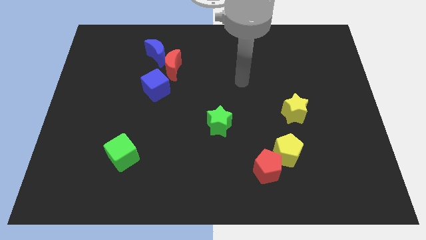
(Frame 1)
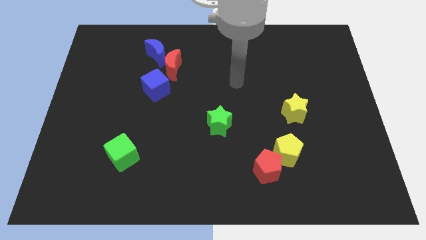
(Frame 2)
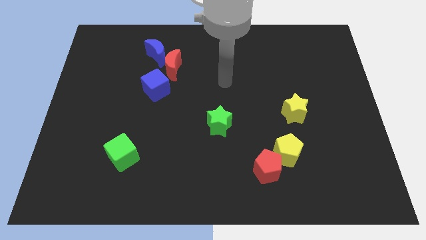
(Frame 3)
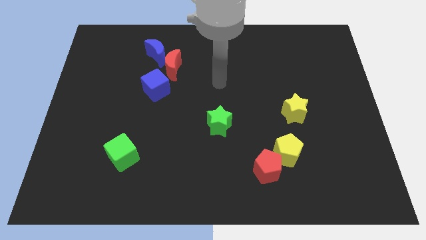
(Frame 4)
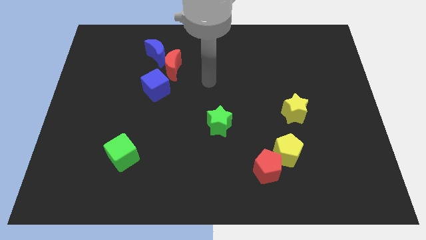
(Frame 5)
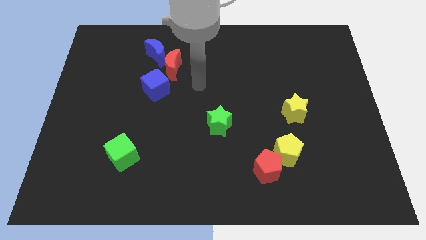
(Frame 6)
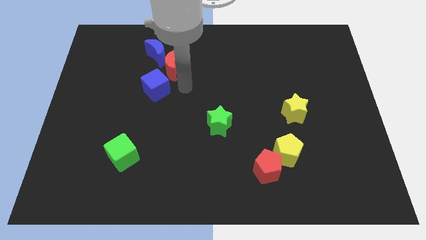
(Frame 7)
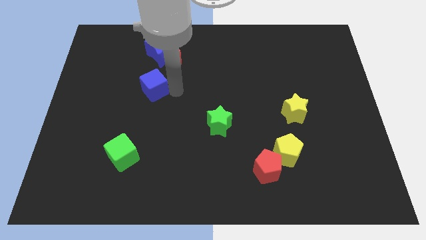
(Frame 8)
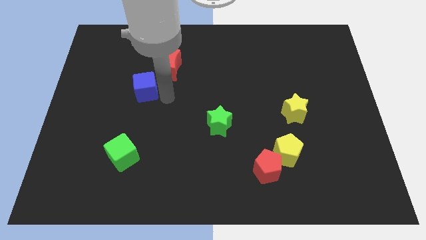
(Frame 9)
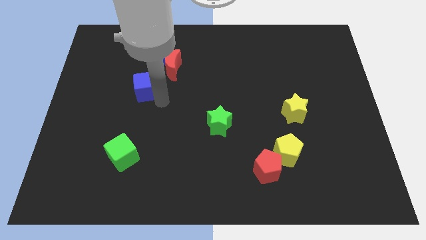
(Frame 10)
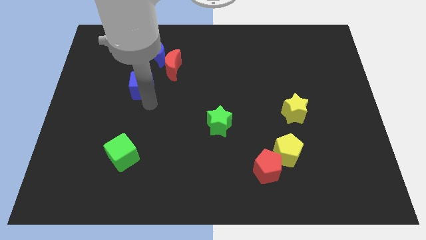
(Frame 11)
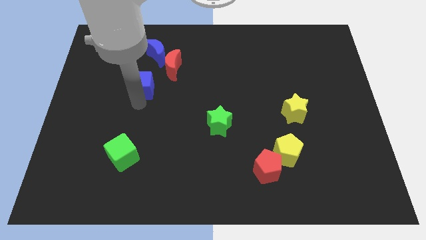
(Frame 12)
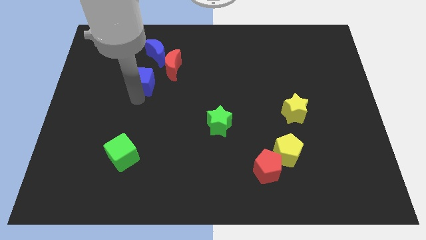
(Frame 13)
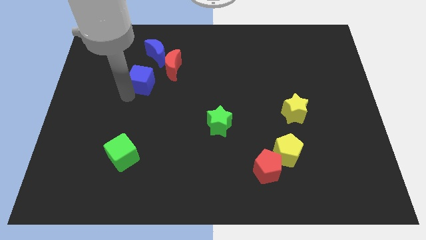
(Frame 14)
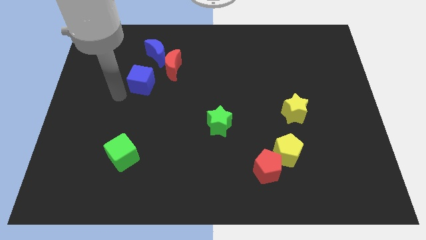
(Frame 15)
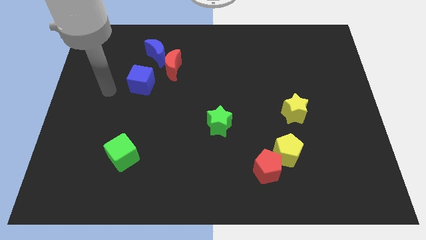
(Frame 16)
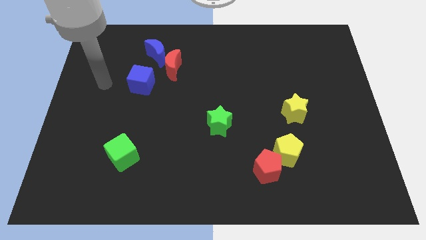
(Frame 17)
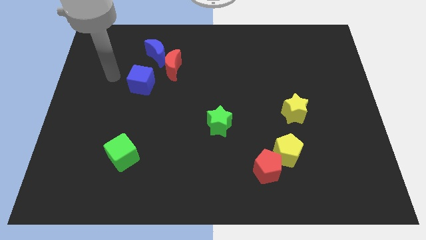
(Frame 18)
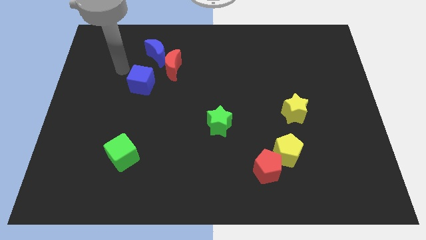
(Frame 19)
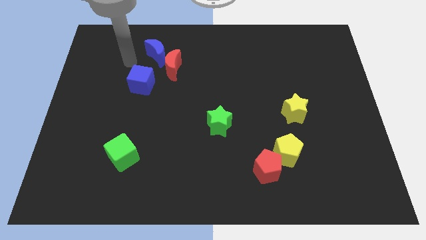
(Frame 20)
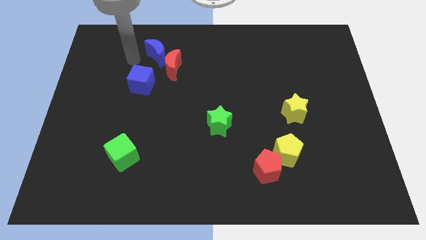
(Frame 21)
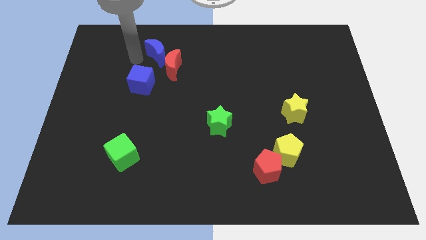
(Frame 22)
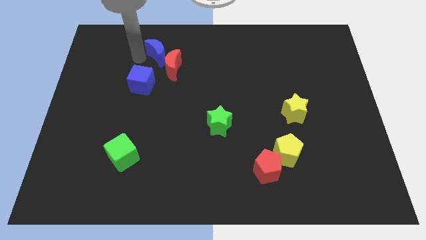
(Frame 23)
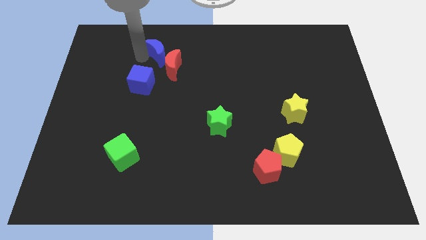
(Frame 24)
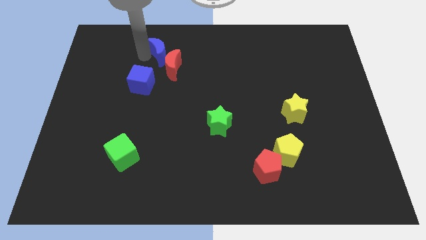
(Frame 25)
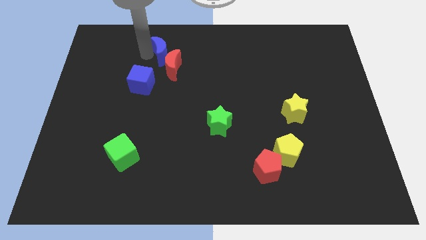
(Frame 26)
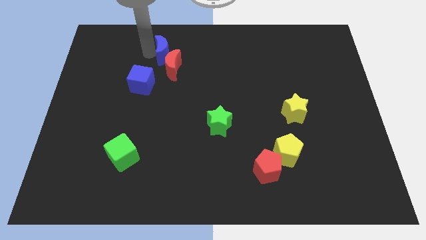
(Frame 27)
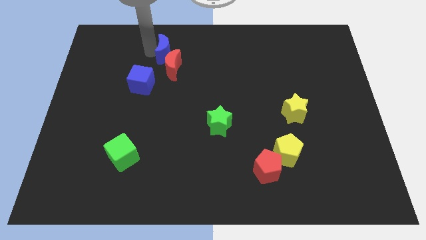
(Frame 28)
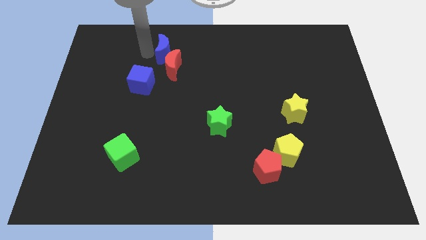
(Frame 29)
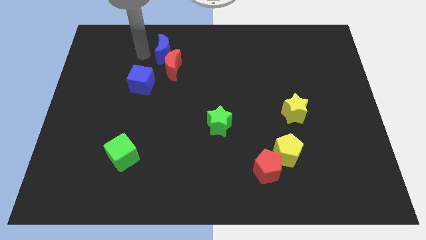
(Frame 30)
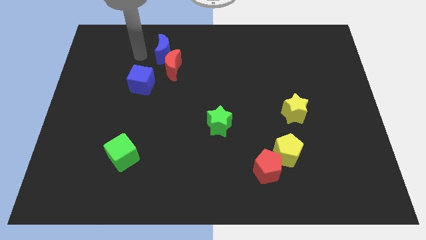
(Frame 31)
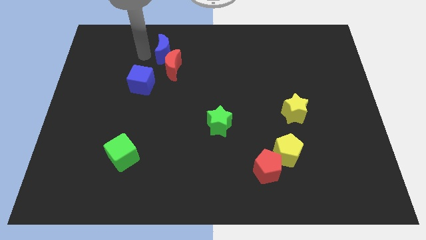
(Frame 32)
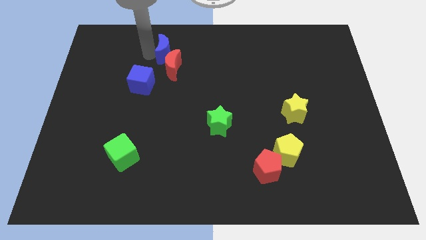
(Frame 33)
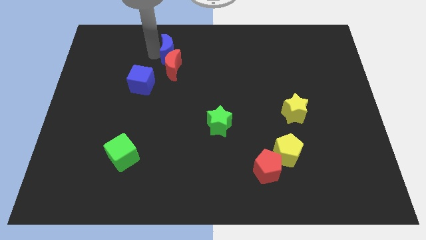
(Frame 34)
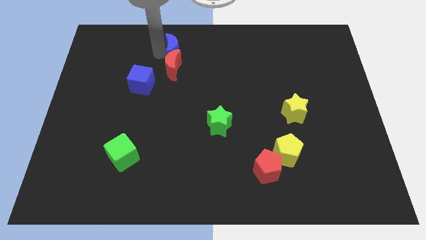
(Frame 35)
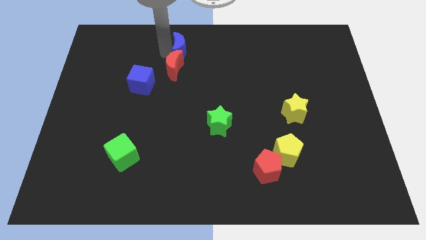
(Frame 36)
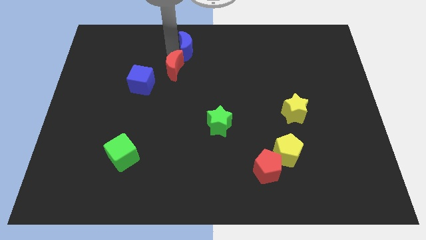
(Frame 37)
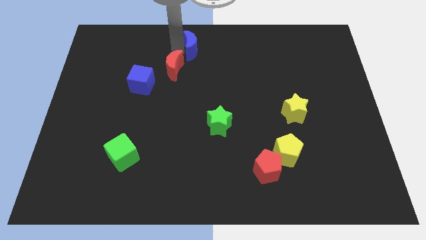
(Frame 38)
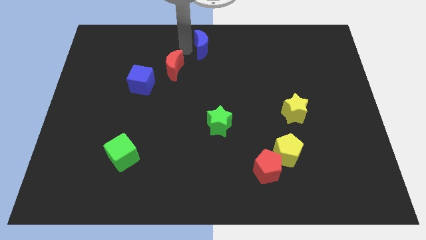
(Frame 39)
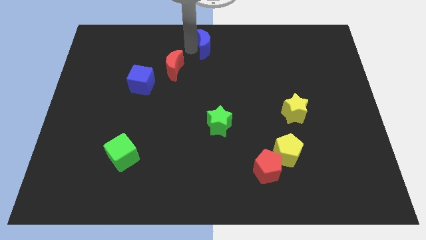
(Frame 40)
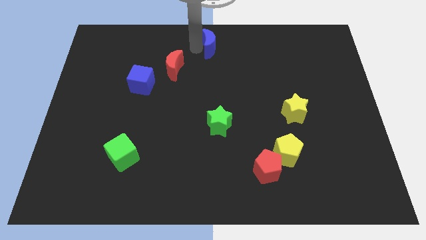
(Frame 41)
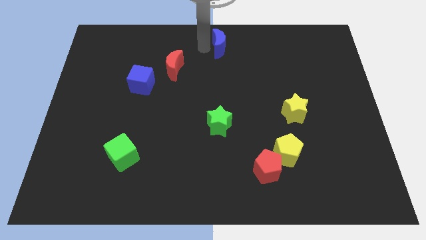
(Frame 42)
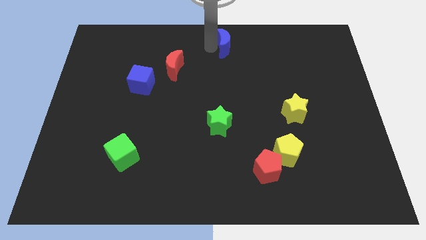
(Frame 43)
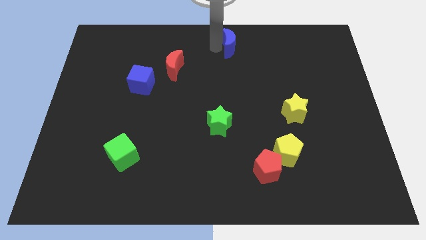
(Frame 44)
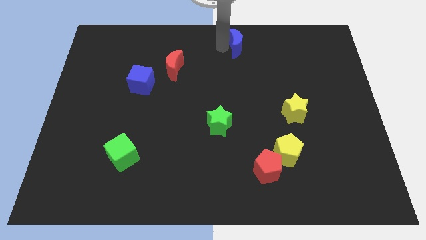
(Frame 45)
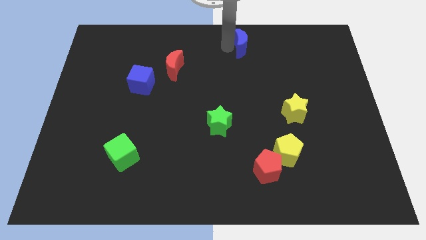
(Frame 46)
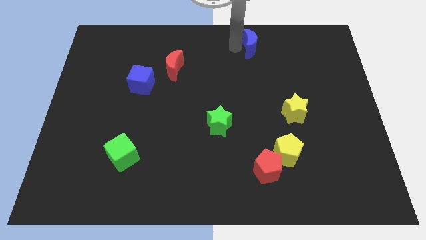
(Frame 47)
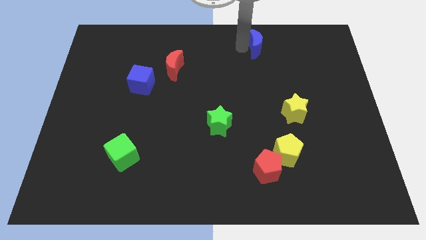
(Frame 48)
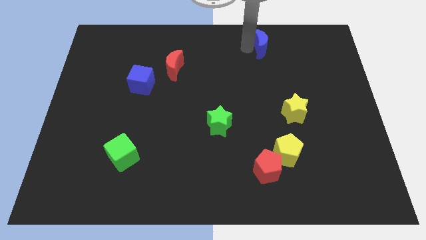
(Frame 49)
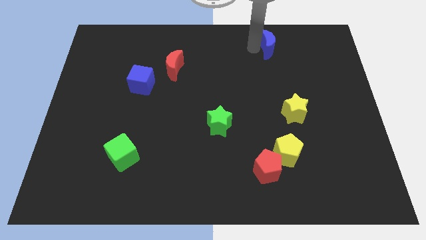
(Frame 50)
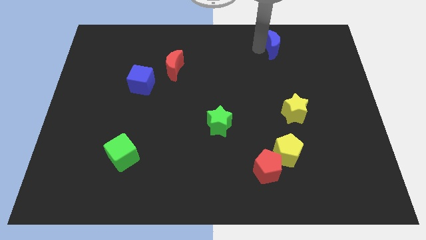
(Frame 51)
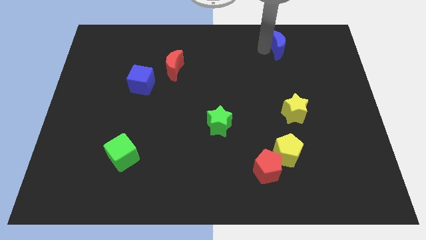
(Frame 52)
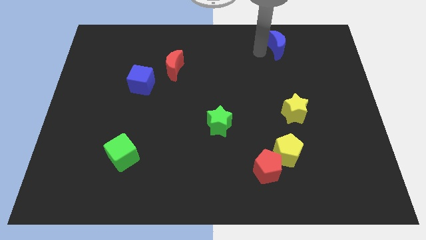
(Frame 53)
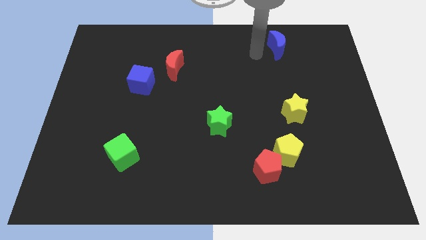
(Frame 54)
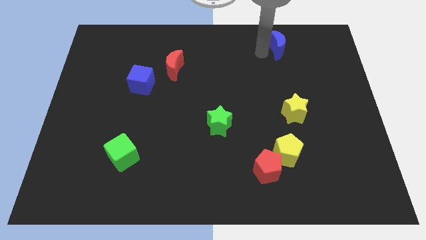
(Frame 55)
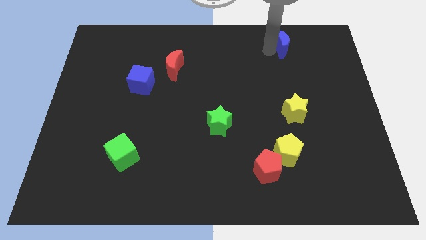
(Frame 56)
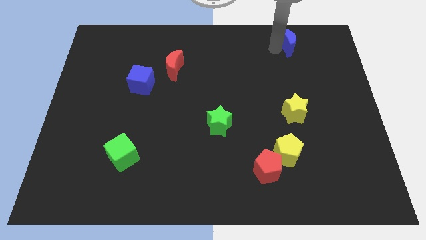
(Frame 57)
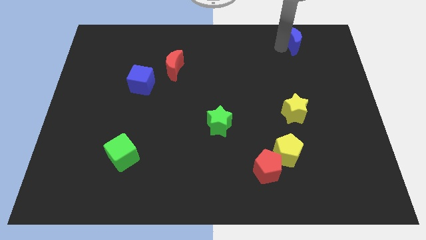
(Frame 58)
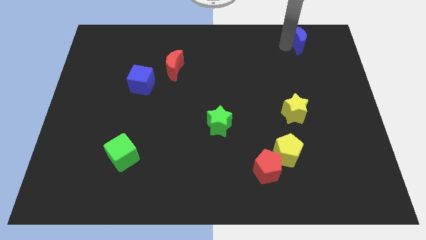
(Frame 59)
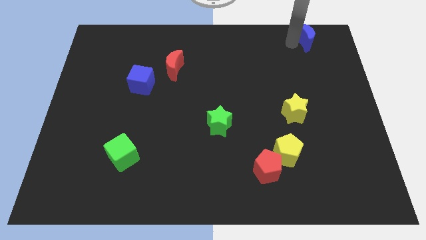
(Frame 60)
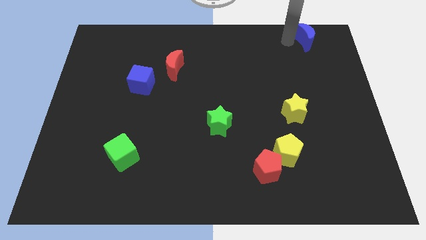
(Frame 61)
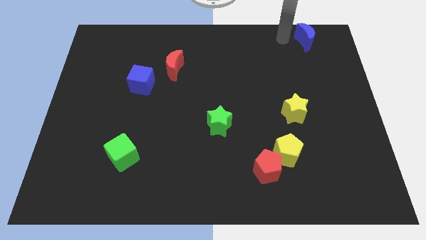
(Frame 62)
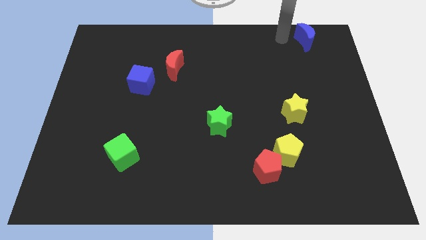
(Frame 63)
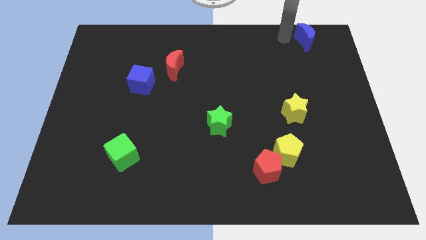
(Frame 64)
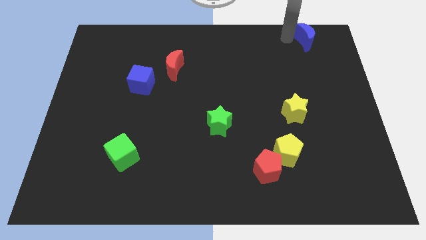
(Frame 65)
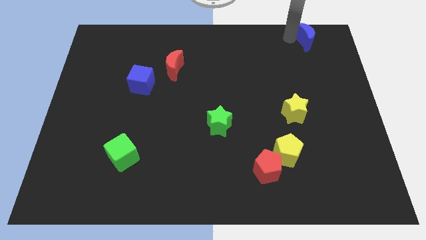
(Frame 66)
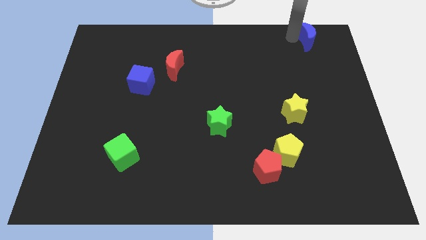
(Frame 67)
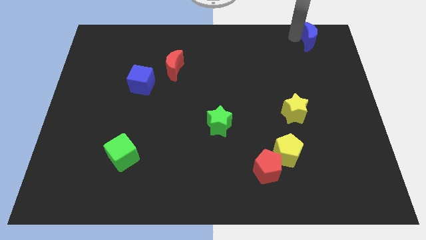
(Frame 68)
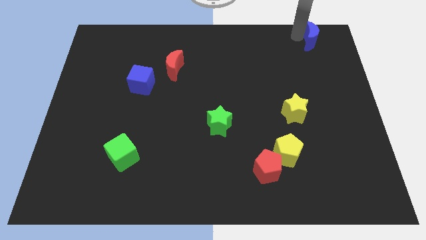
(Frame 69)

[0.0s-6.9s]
move the blue moon to the upper right corner
